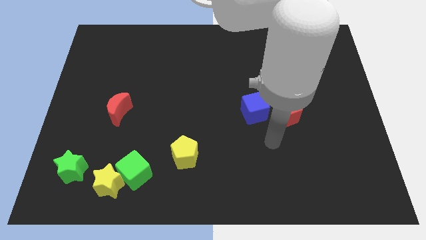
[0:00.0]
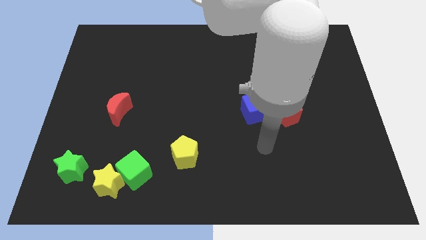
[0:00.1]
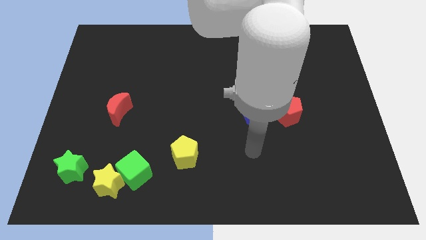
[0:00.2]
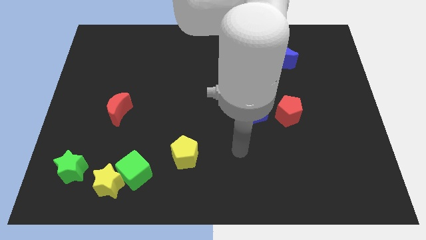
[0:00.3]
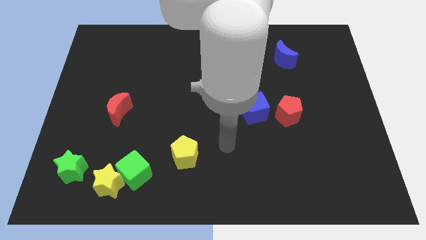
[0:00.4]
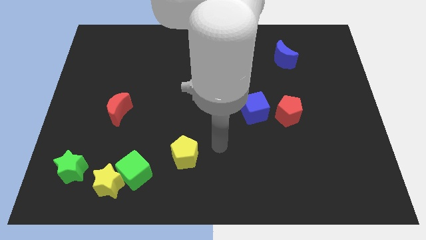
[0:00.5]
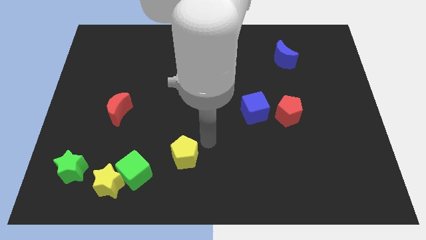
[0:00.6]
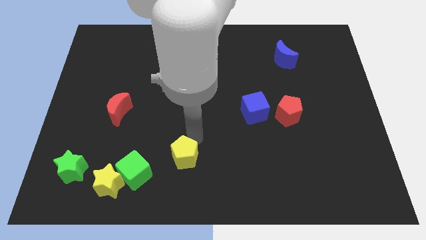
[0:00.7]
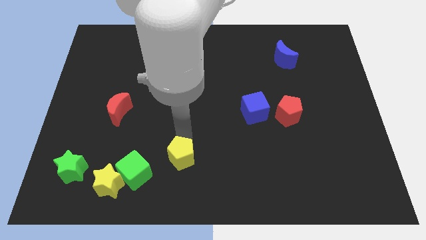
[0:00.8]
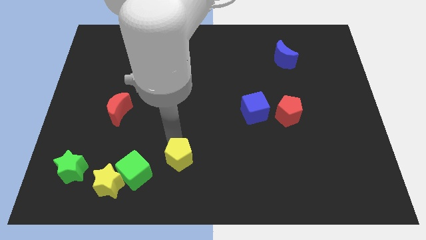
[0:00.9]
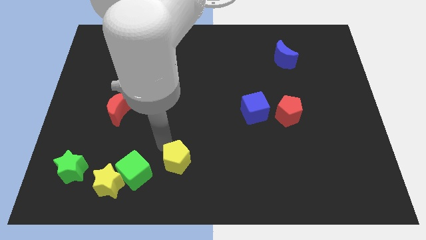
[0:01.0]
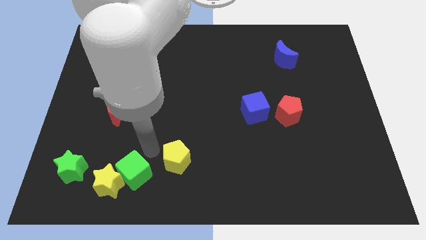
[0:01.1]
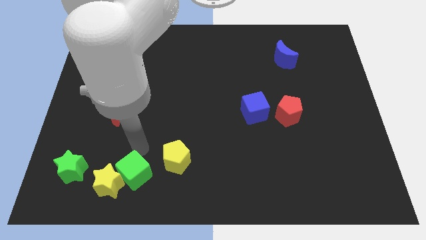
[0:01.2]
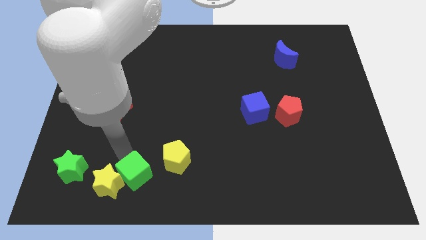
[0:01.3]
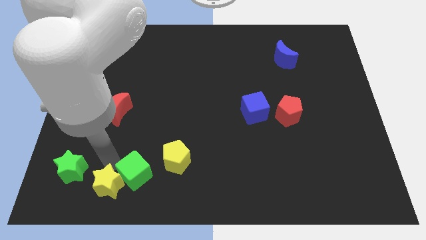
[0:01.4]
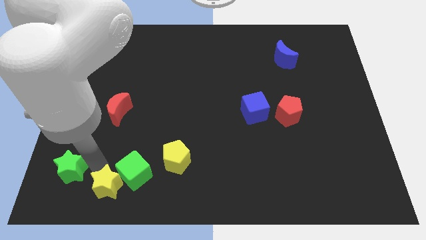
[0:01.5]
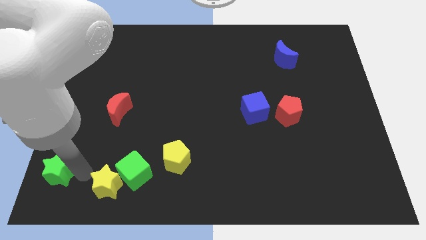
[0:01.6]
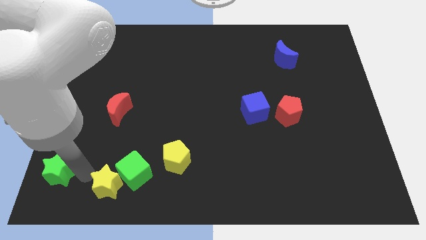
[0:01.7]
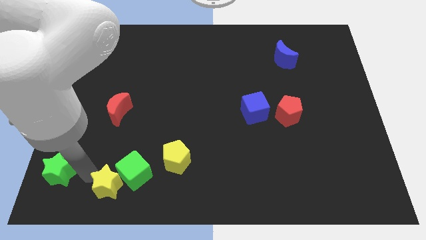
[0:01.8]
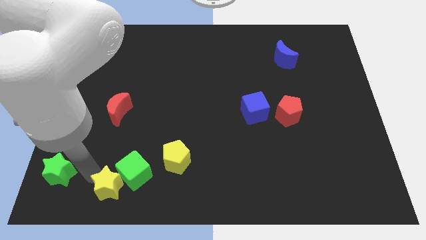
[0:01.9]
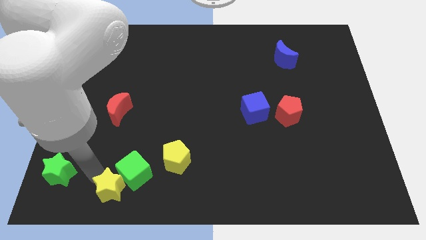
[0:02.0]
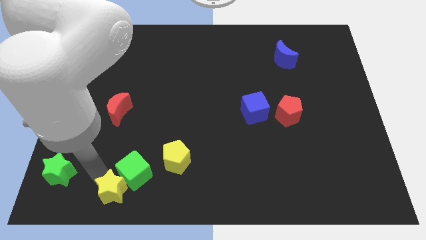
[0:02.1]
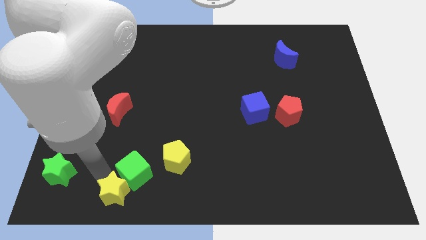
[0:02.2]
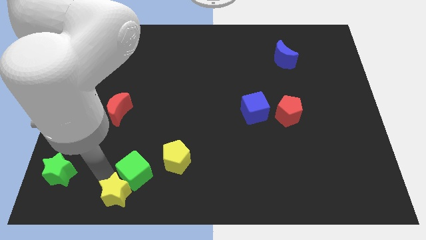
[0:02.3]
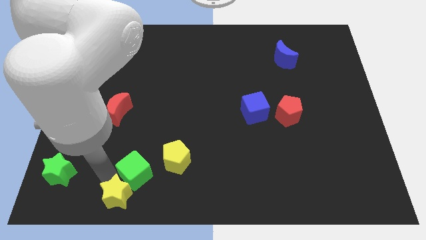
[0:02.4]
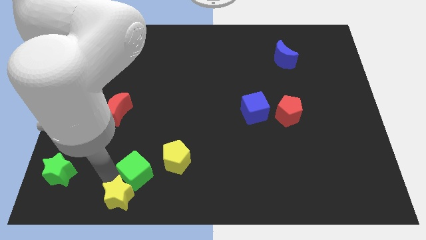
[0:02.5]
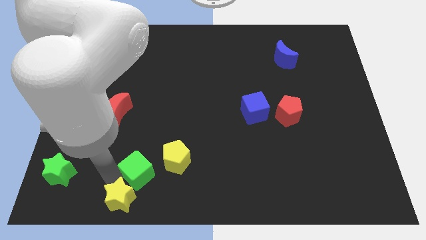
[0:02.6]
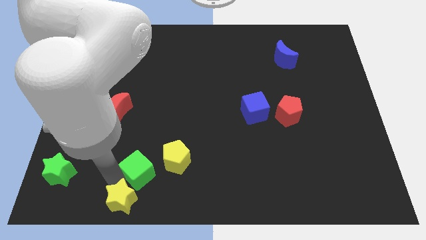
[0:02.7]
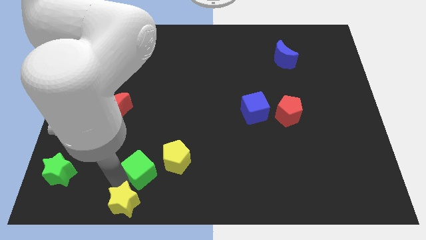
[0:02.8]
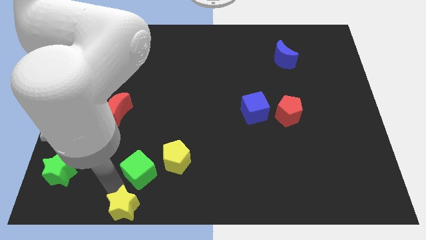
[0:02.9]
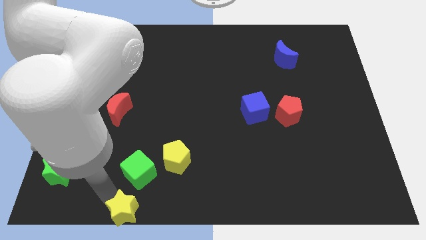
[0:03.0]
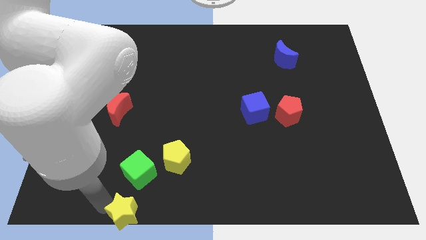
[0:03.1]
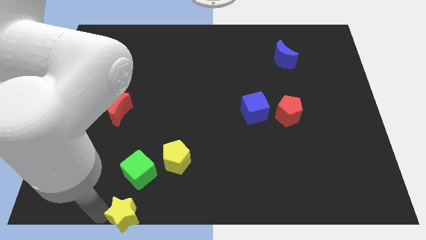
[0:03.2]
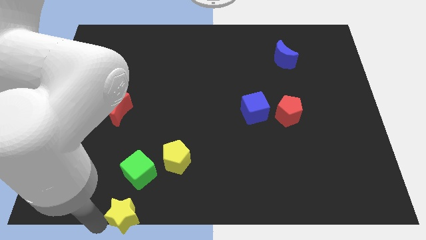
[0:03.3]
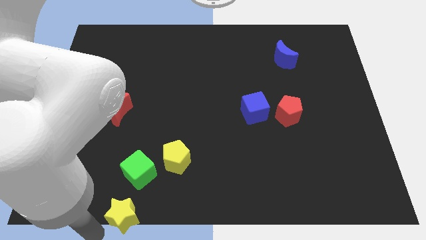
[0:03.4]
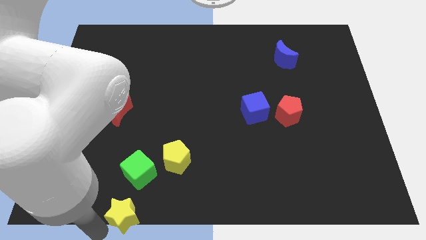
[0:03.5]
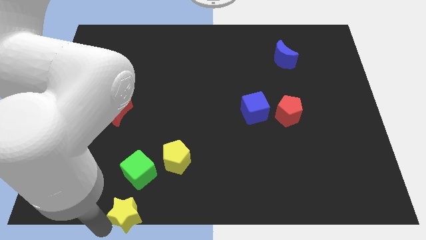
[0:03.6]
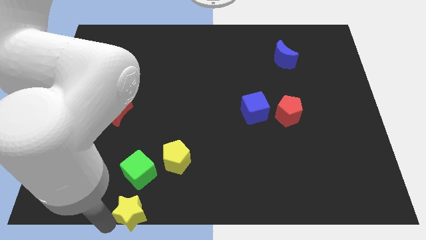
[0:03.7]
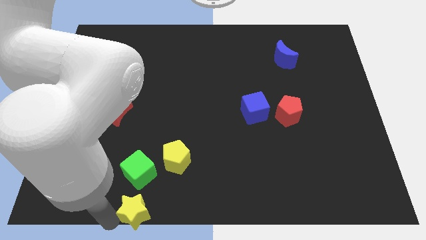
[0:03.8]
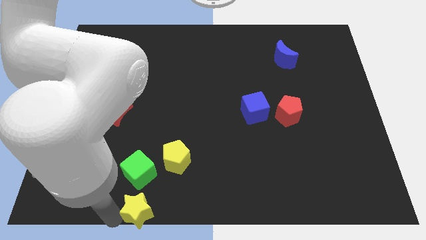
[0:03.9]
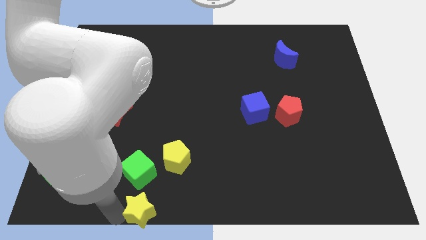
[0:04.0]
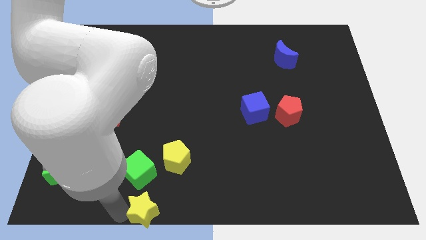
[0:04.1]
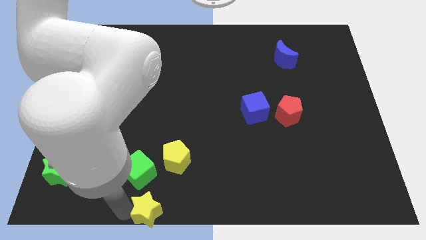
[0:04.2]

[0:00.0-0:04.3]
slightly push the yellow star right

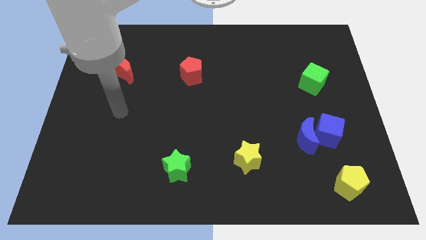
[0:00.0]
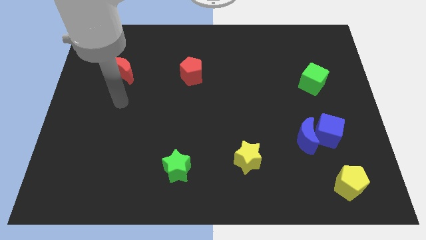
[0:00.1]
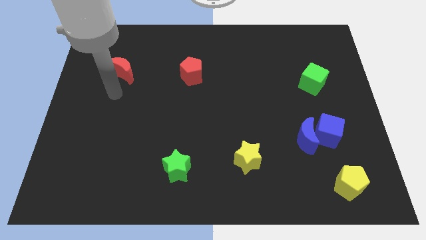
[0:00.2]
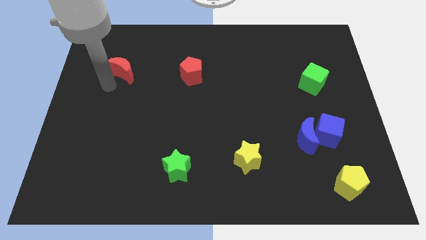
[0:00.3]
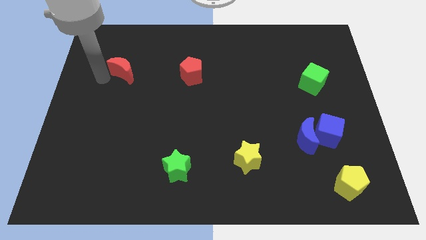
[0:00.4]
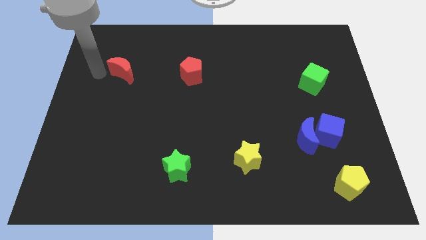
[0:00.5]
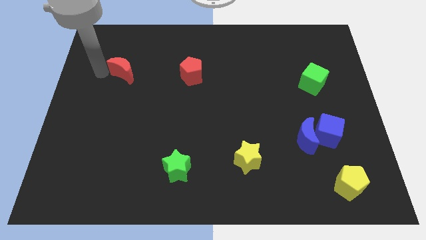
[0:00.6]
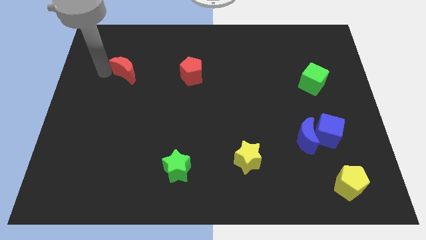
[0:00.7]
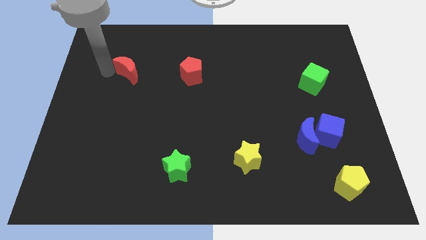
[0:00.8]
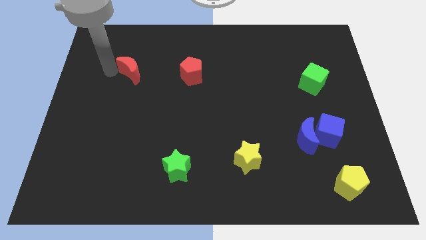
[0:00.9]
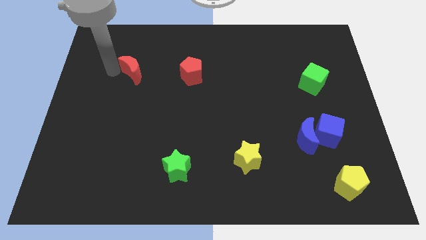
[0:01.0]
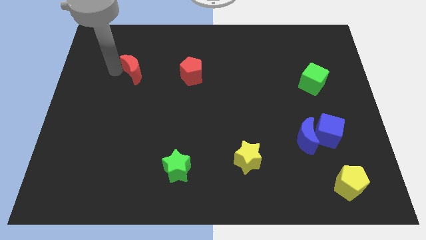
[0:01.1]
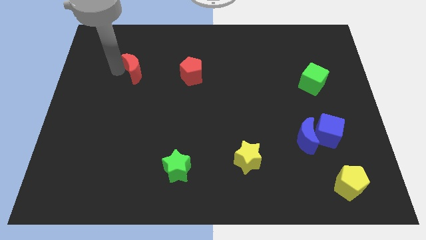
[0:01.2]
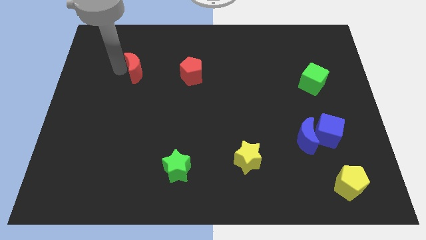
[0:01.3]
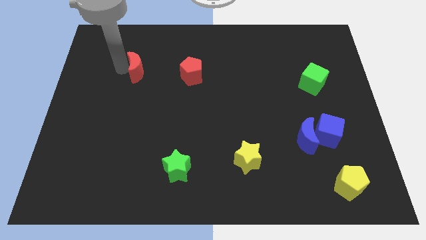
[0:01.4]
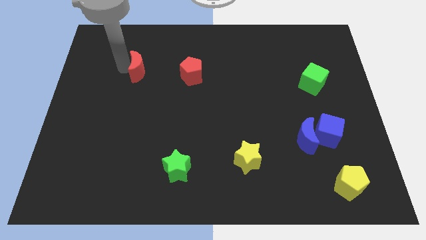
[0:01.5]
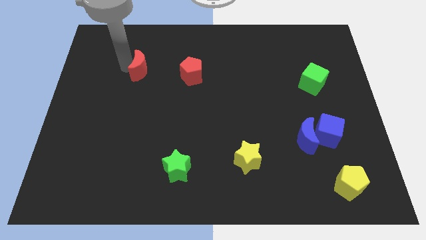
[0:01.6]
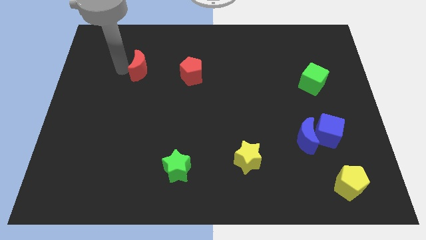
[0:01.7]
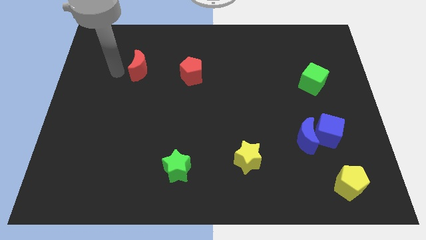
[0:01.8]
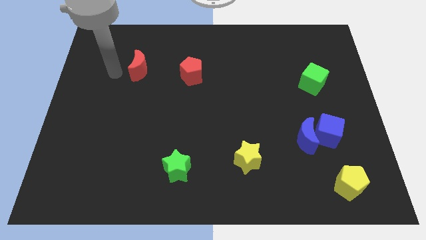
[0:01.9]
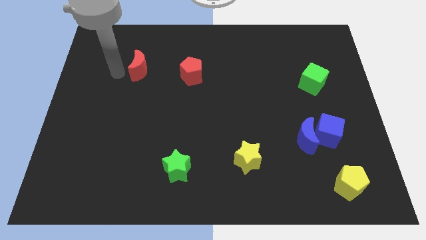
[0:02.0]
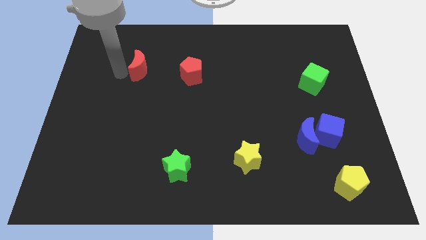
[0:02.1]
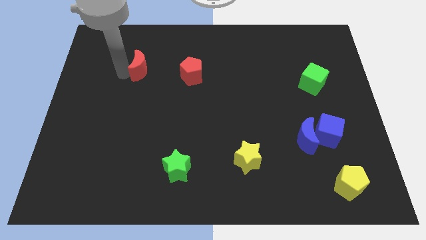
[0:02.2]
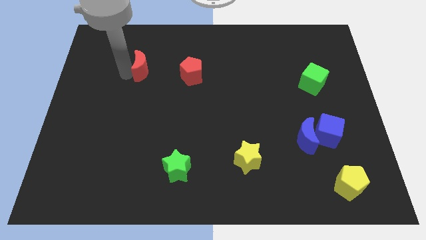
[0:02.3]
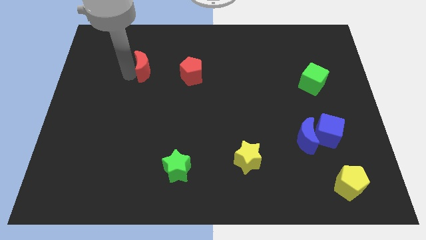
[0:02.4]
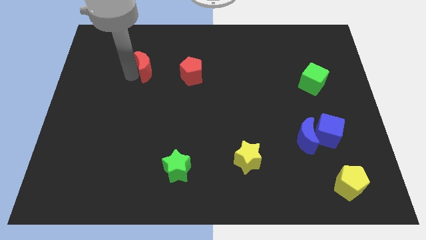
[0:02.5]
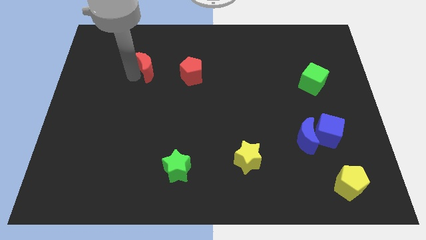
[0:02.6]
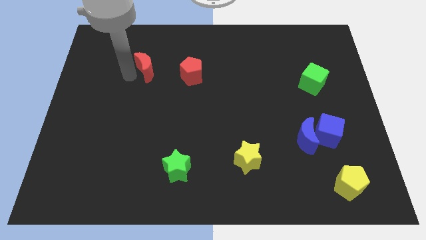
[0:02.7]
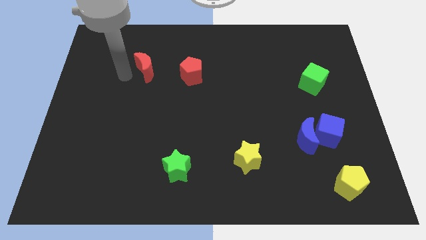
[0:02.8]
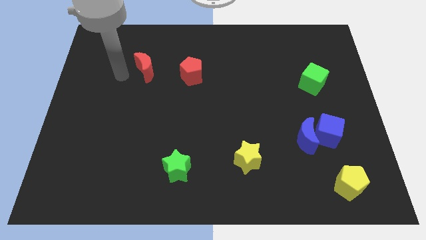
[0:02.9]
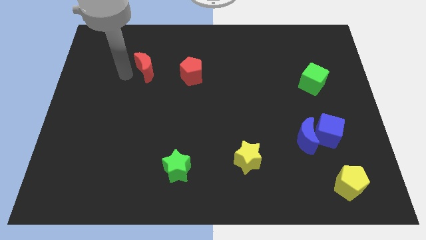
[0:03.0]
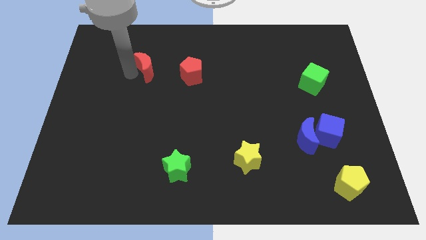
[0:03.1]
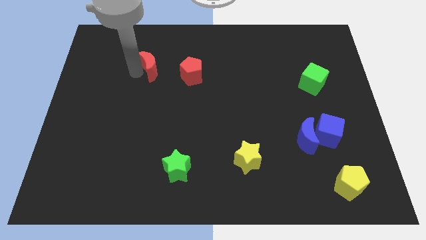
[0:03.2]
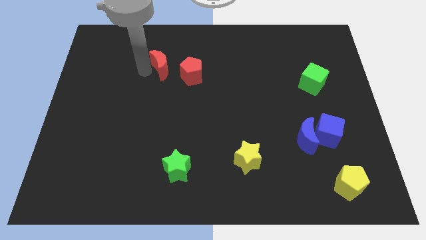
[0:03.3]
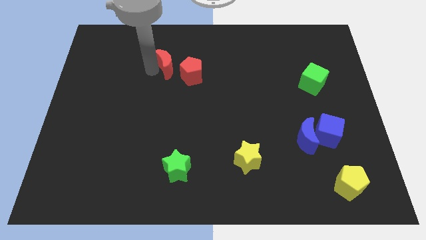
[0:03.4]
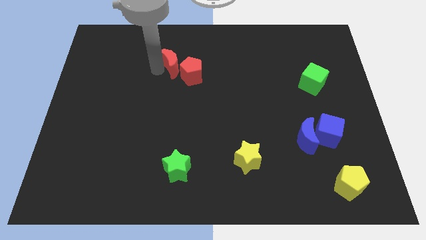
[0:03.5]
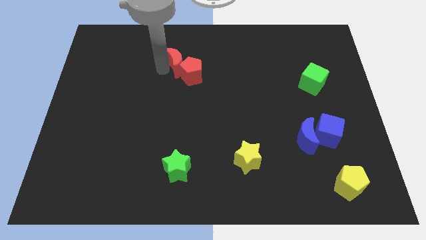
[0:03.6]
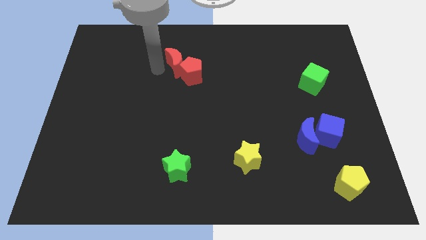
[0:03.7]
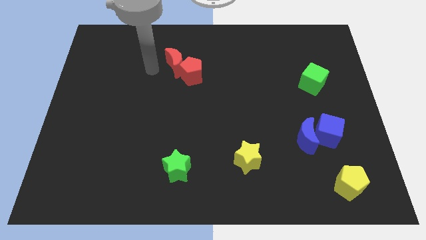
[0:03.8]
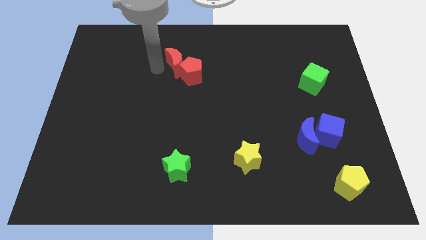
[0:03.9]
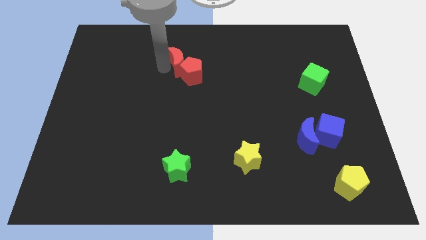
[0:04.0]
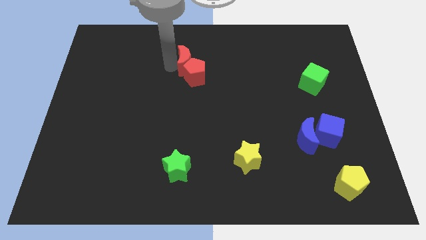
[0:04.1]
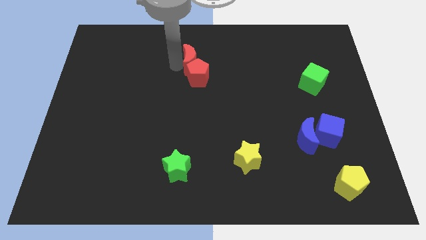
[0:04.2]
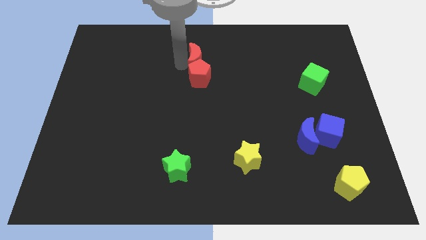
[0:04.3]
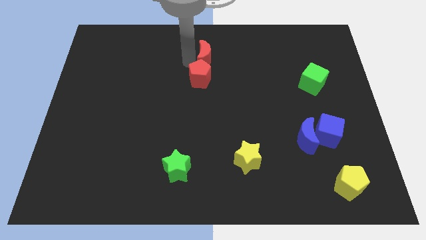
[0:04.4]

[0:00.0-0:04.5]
push the red moon right
